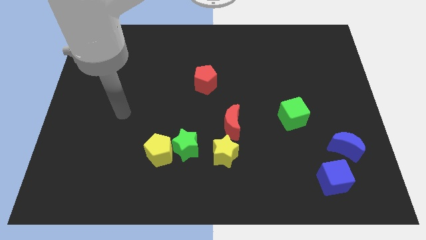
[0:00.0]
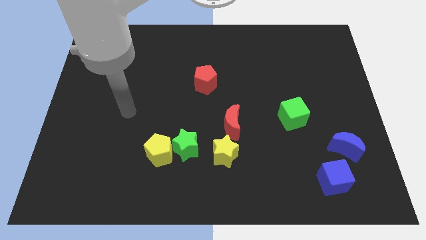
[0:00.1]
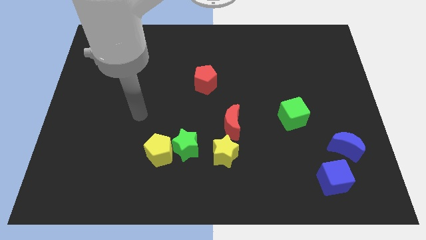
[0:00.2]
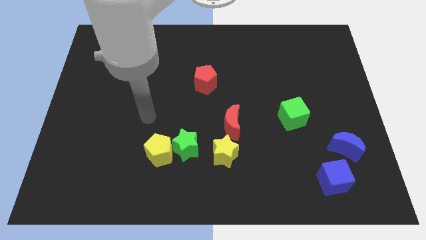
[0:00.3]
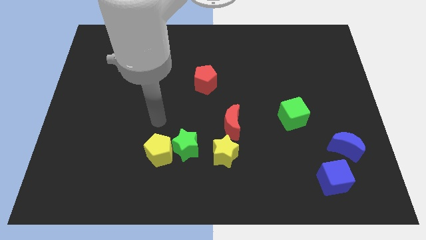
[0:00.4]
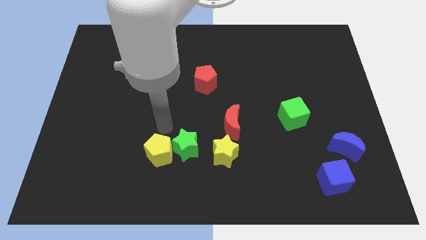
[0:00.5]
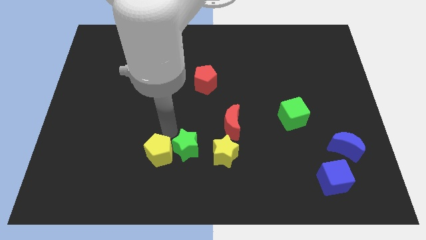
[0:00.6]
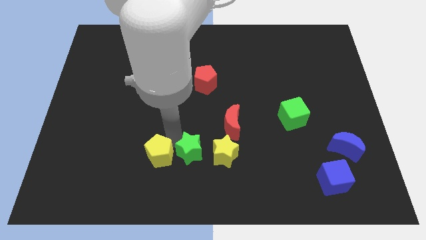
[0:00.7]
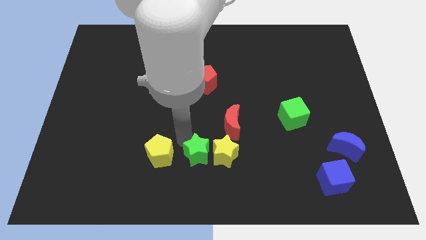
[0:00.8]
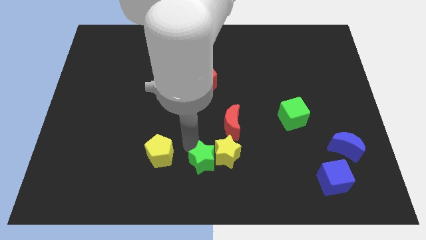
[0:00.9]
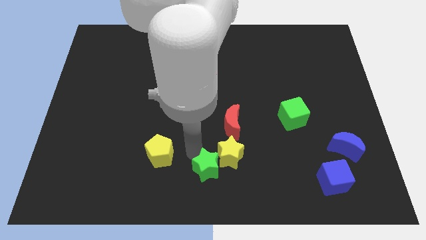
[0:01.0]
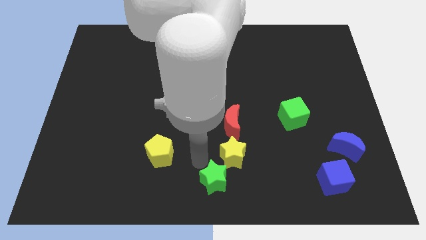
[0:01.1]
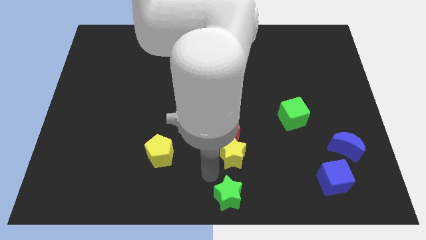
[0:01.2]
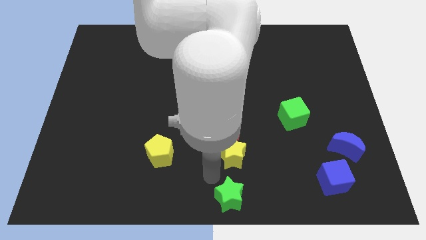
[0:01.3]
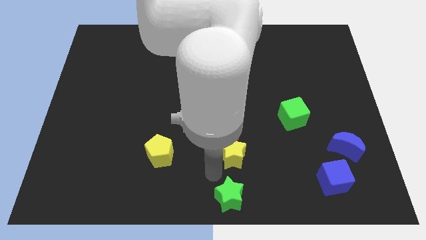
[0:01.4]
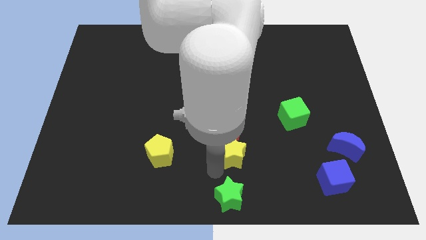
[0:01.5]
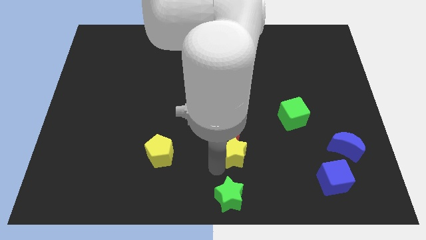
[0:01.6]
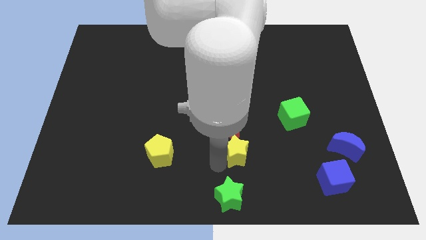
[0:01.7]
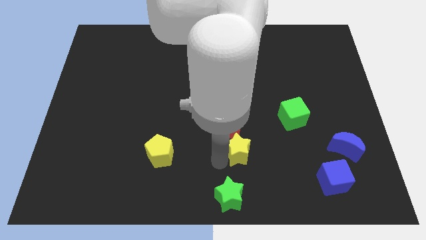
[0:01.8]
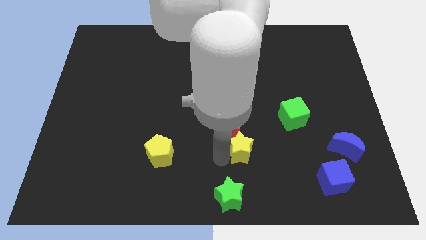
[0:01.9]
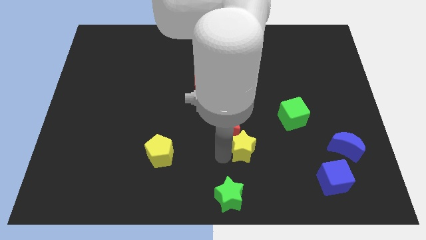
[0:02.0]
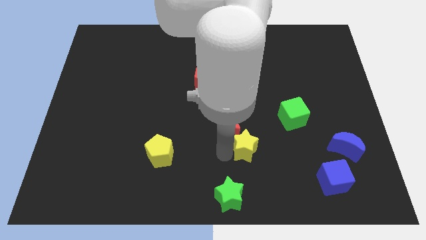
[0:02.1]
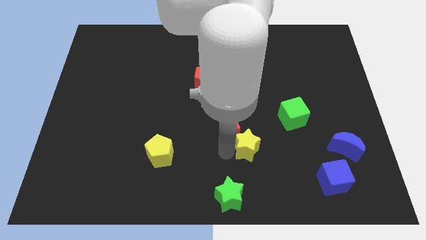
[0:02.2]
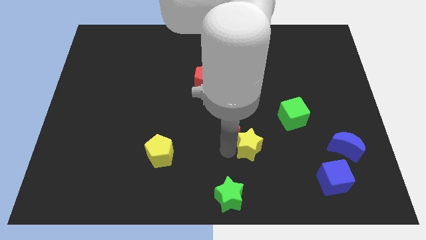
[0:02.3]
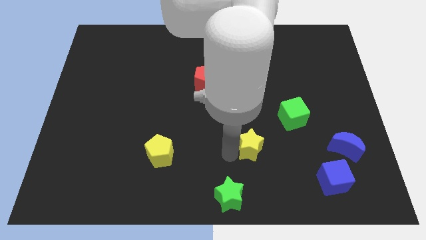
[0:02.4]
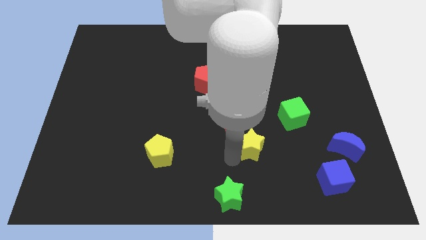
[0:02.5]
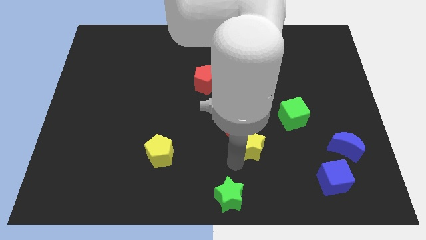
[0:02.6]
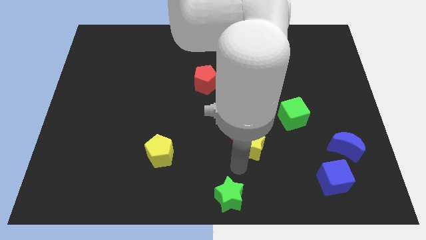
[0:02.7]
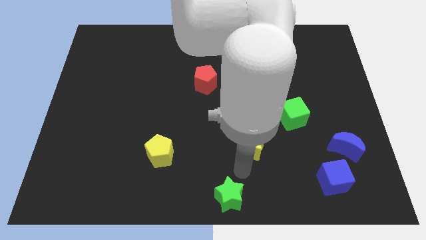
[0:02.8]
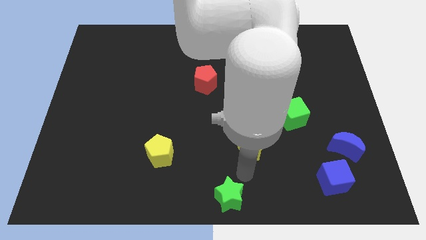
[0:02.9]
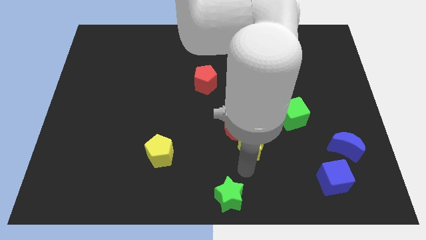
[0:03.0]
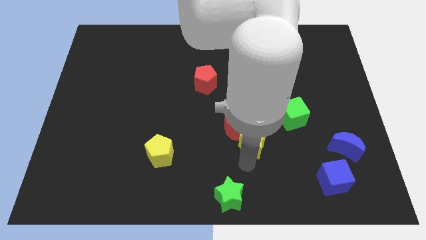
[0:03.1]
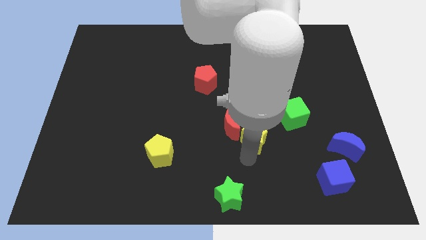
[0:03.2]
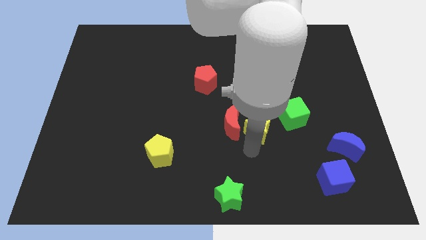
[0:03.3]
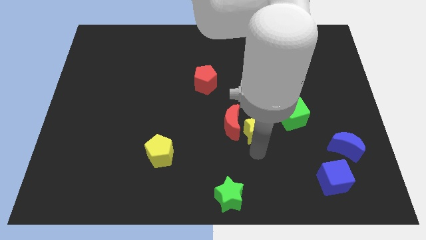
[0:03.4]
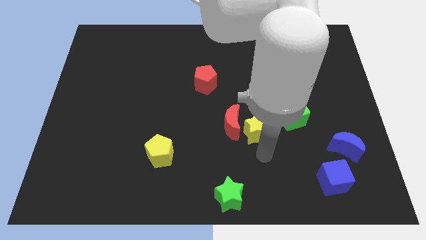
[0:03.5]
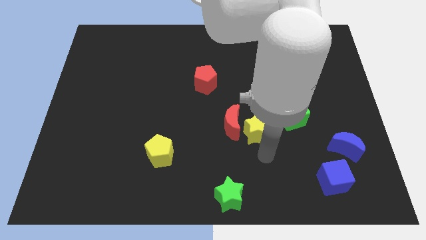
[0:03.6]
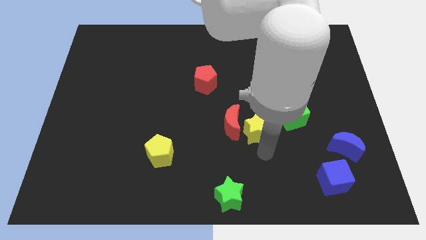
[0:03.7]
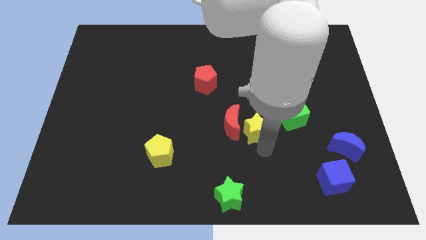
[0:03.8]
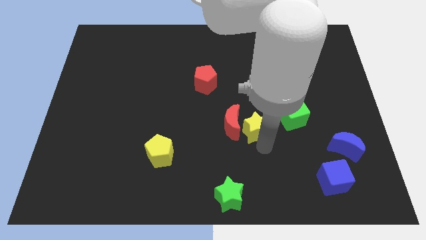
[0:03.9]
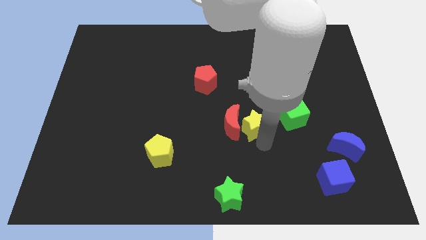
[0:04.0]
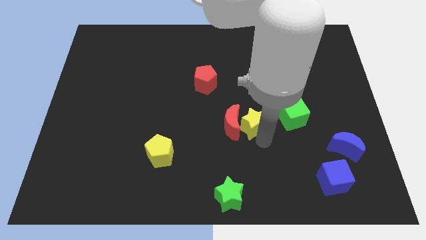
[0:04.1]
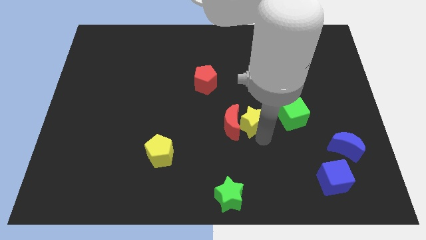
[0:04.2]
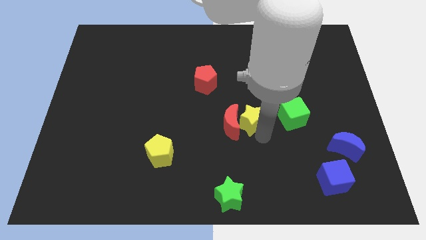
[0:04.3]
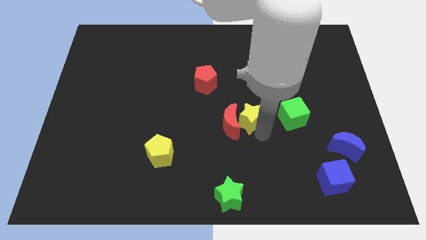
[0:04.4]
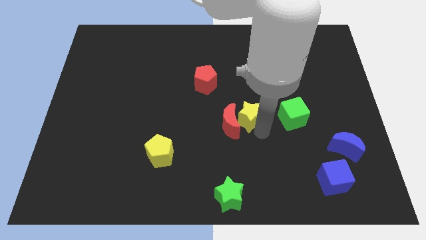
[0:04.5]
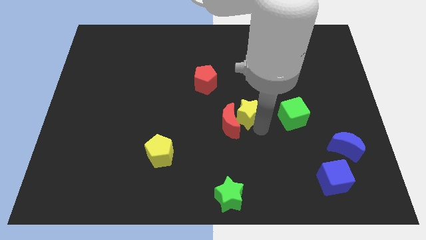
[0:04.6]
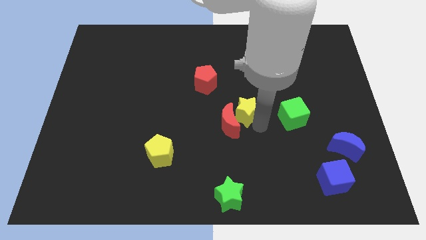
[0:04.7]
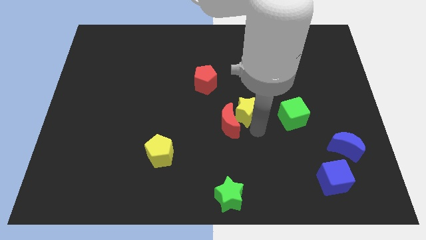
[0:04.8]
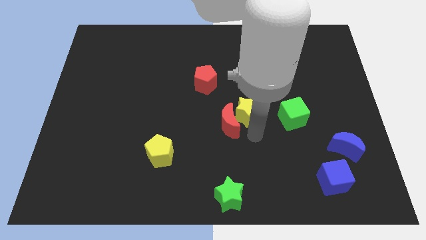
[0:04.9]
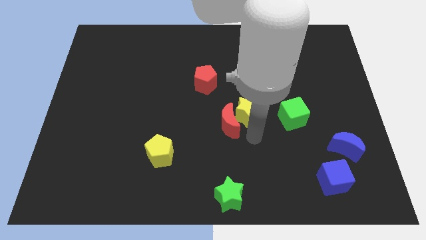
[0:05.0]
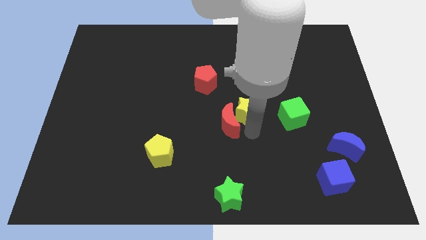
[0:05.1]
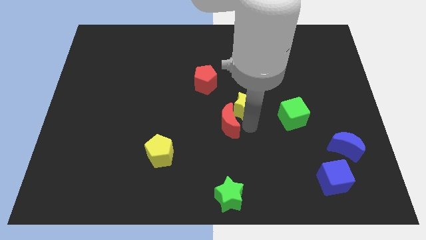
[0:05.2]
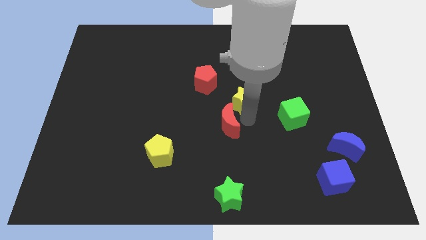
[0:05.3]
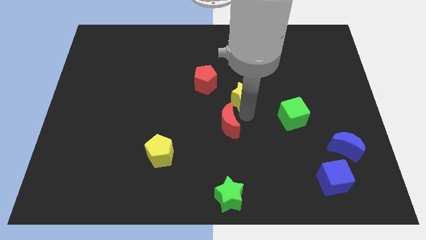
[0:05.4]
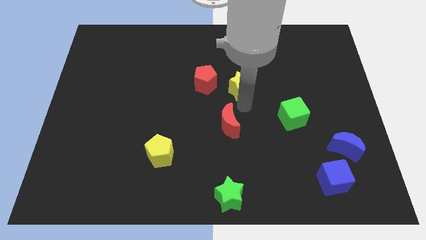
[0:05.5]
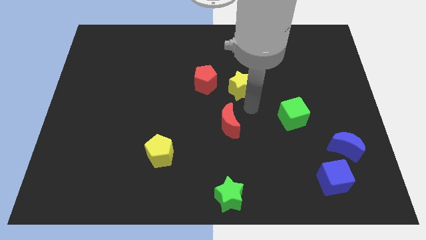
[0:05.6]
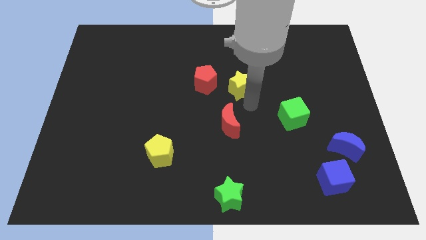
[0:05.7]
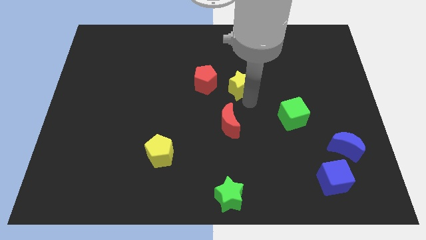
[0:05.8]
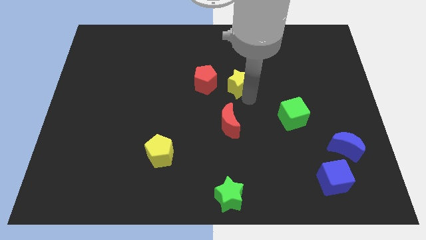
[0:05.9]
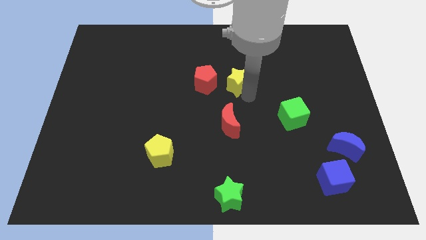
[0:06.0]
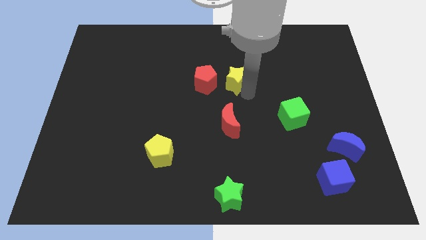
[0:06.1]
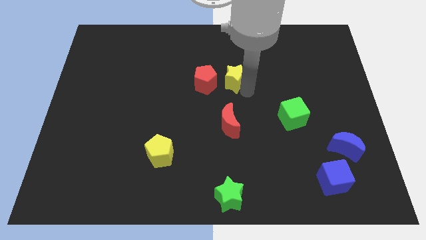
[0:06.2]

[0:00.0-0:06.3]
put the yellow star to the top right side of the red pentagon

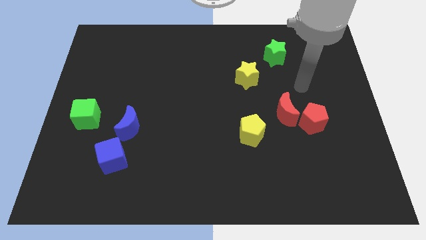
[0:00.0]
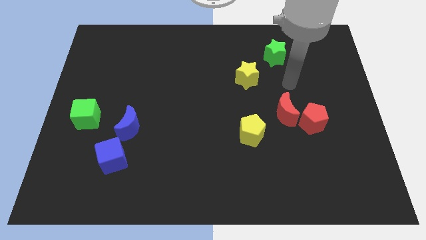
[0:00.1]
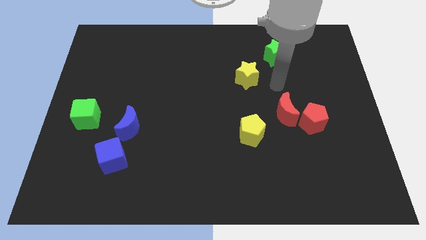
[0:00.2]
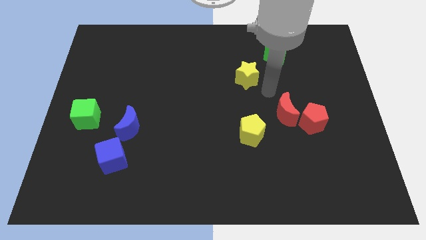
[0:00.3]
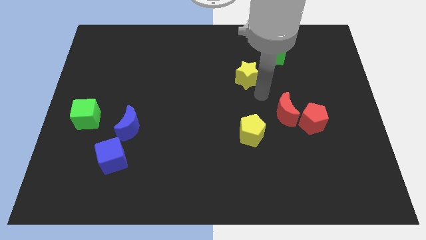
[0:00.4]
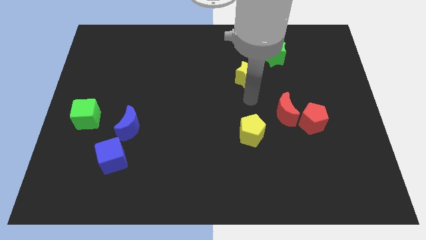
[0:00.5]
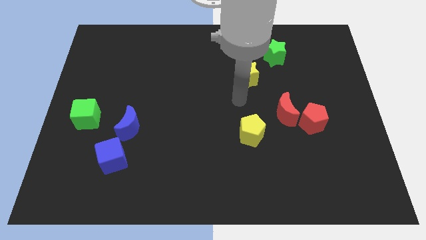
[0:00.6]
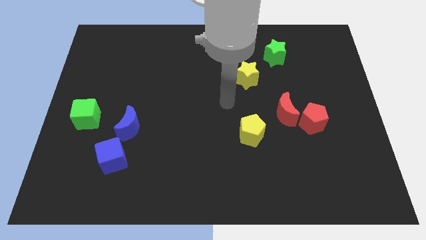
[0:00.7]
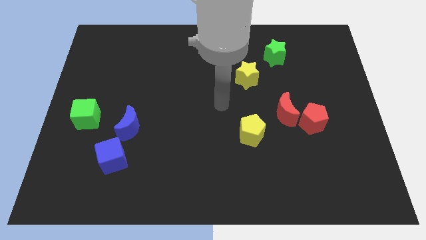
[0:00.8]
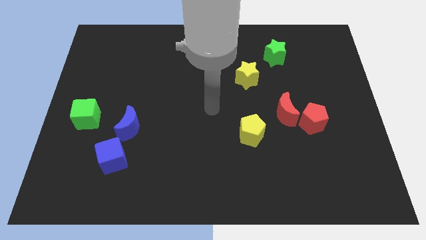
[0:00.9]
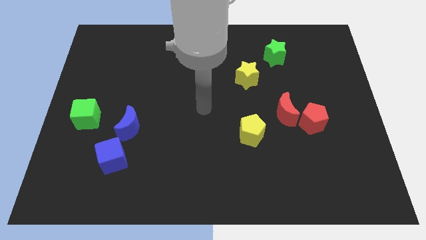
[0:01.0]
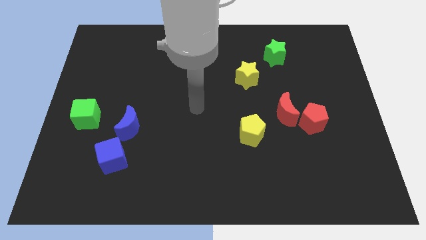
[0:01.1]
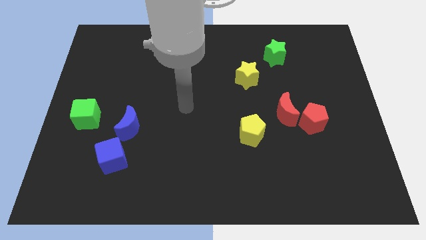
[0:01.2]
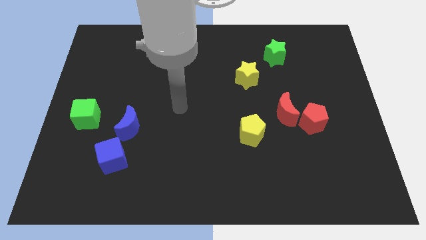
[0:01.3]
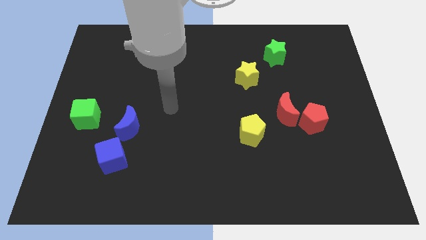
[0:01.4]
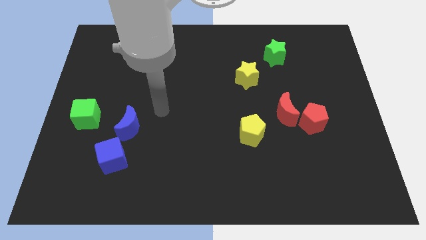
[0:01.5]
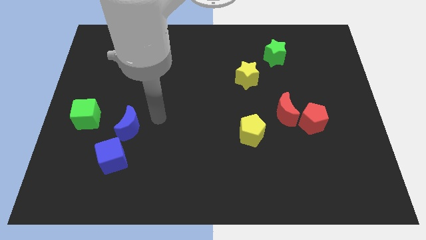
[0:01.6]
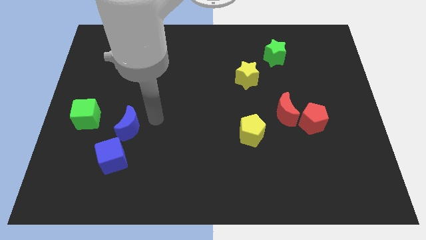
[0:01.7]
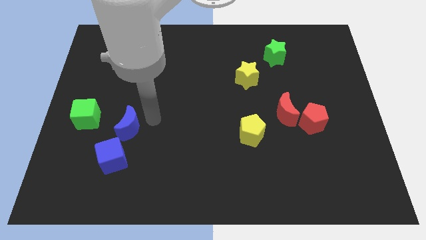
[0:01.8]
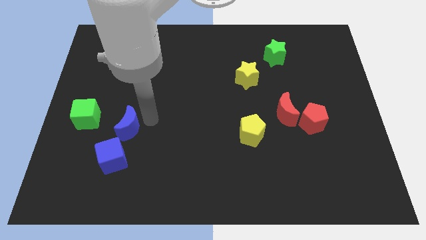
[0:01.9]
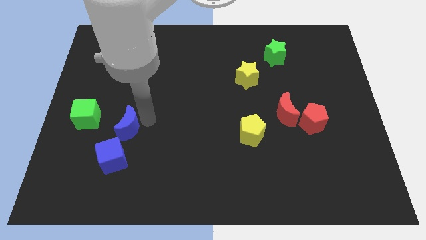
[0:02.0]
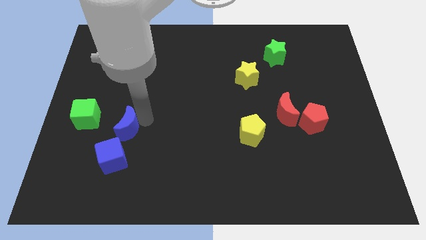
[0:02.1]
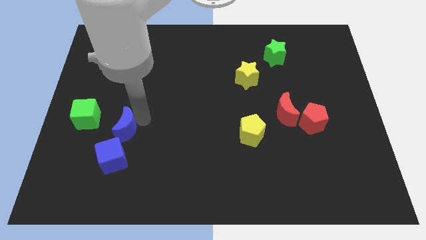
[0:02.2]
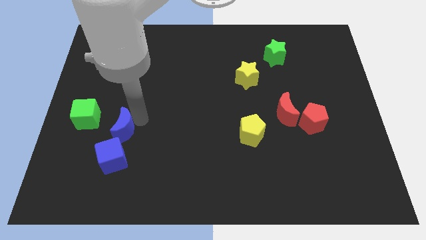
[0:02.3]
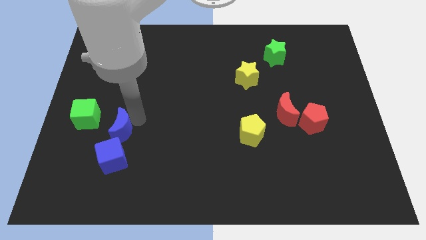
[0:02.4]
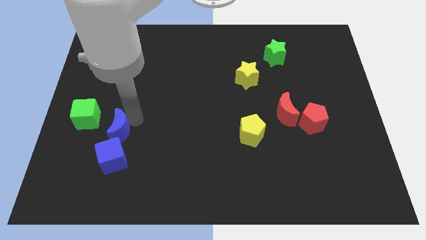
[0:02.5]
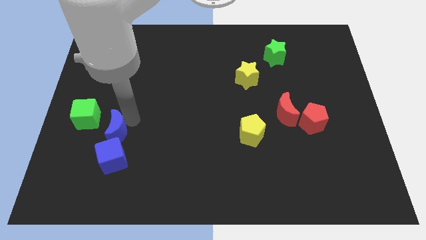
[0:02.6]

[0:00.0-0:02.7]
move the blue moon to the top left side of the blue cube
